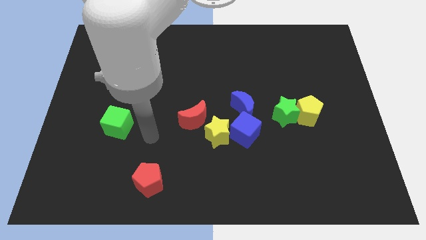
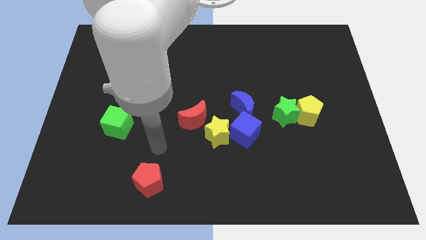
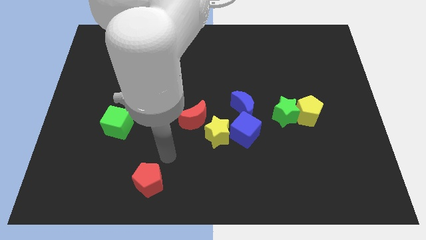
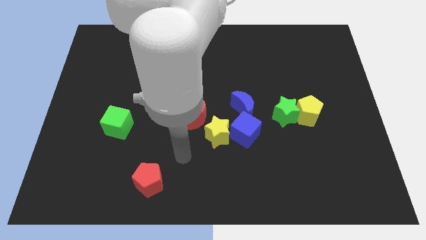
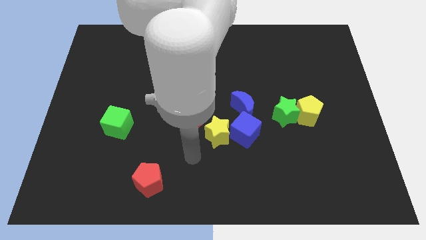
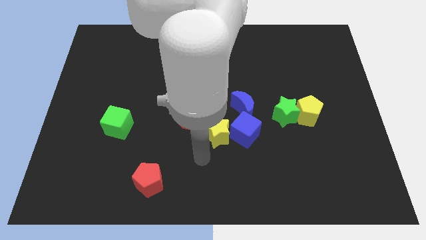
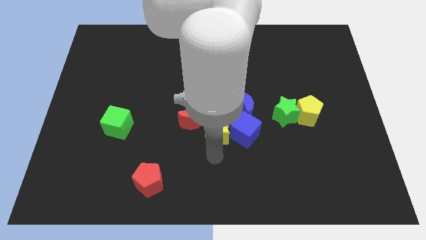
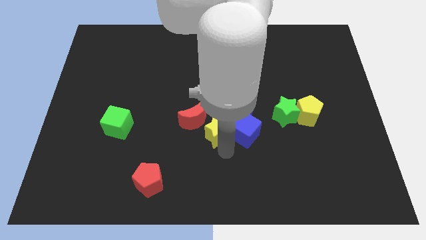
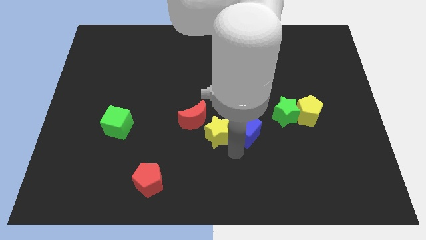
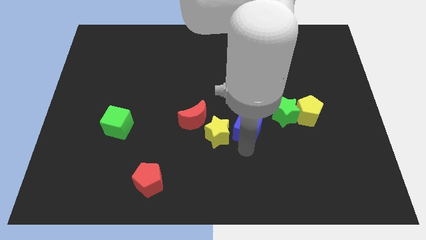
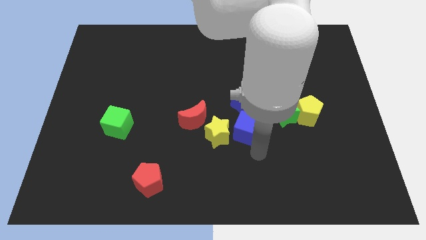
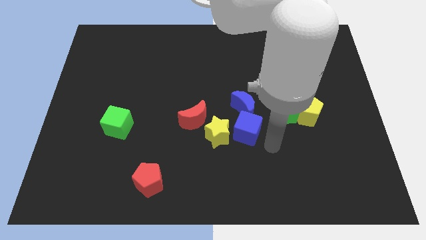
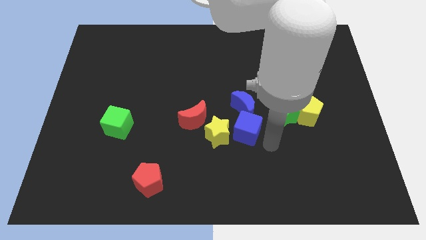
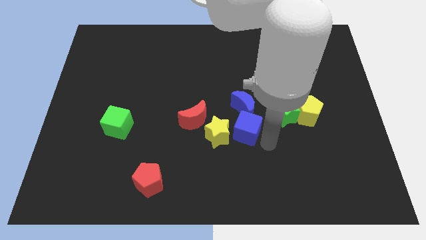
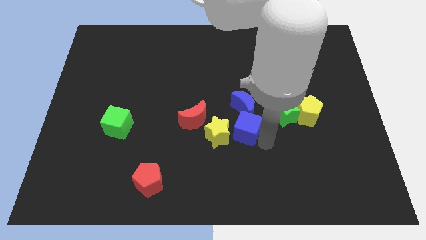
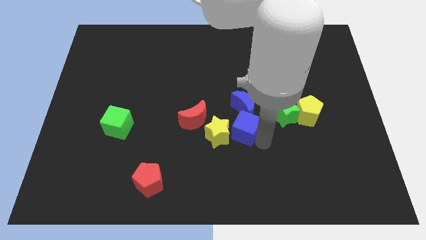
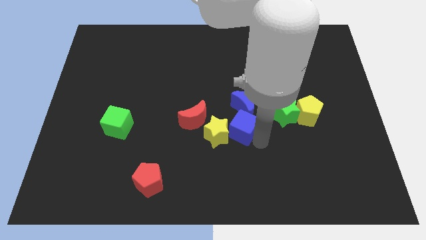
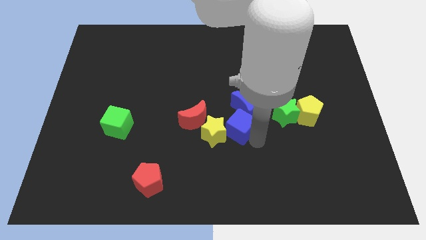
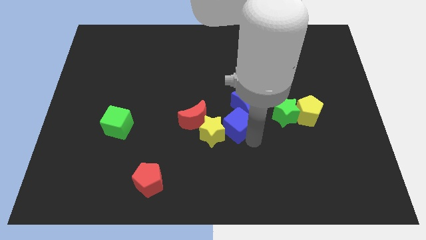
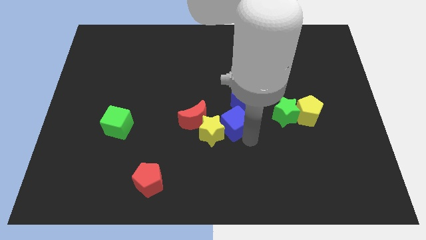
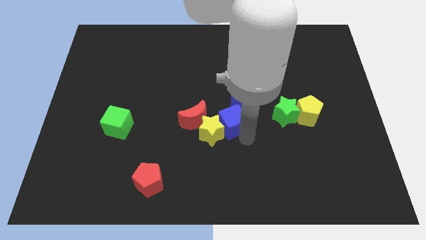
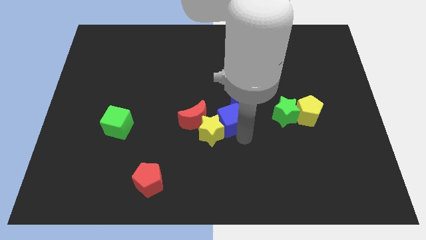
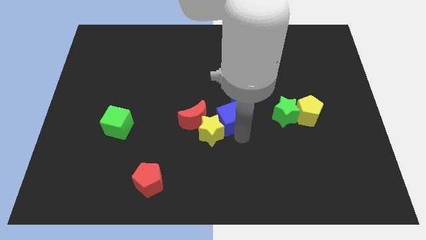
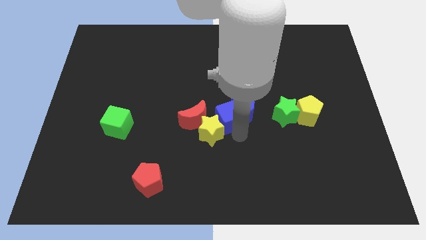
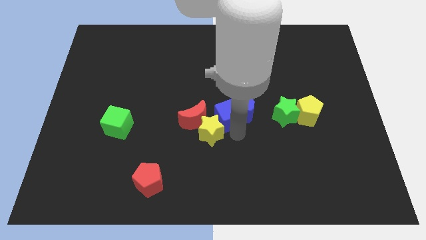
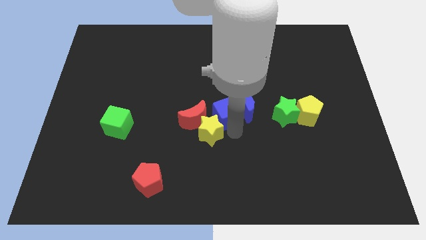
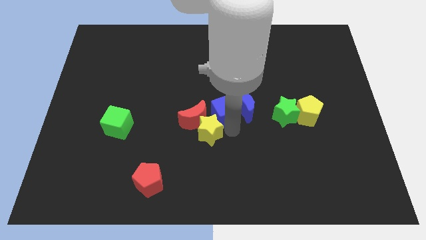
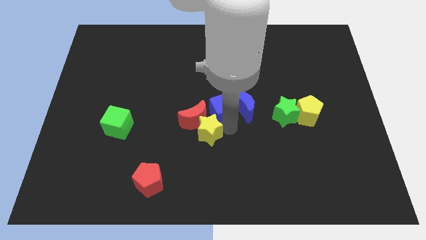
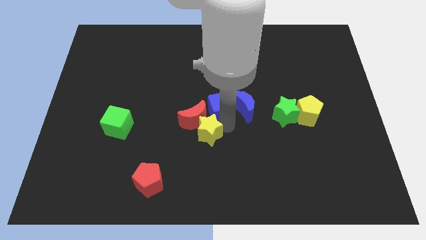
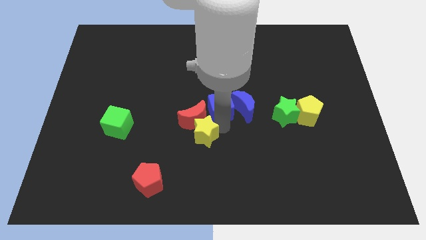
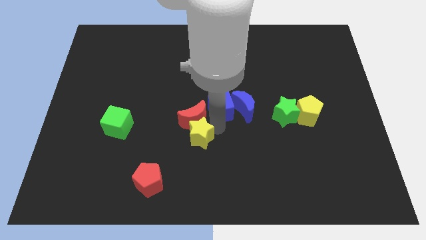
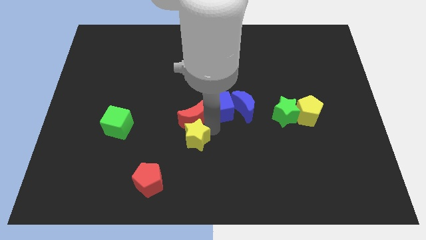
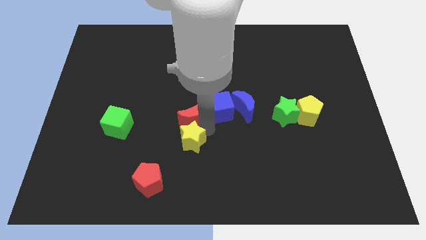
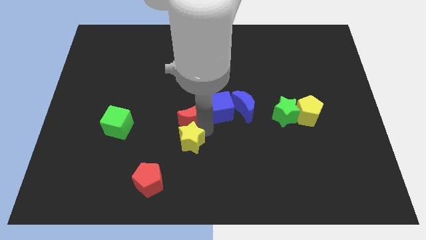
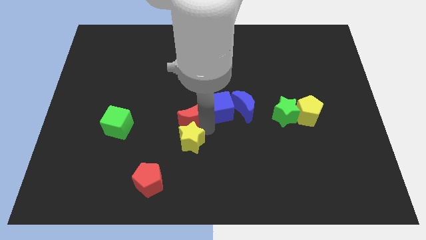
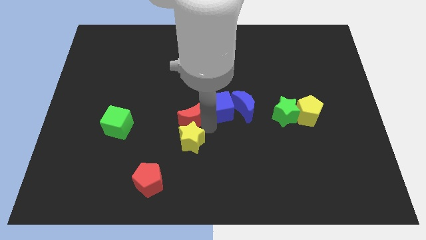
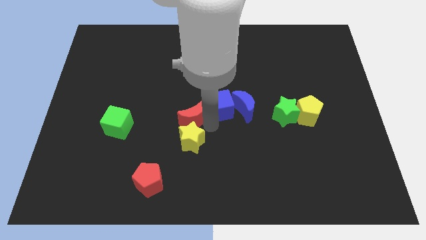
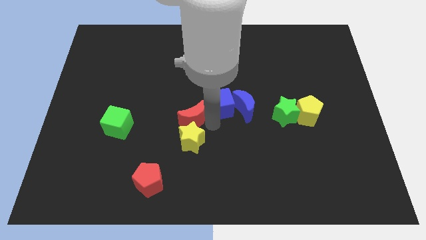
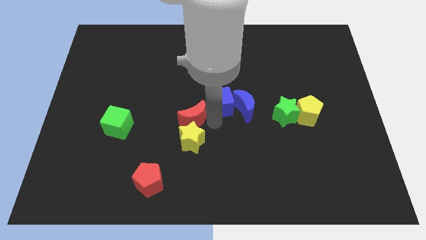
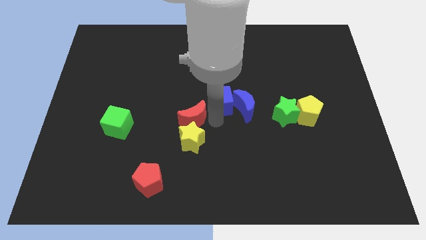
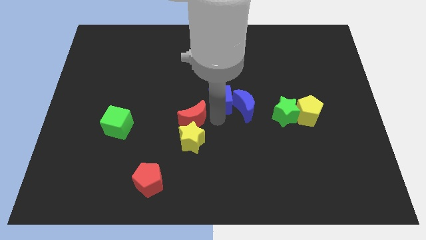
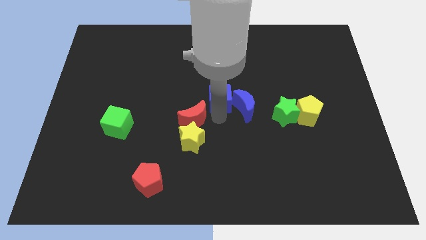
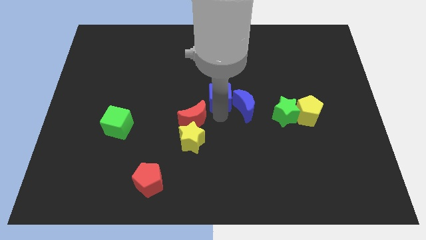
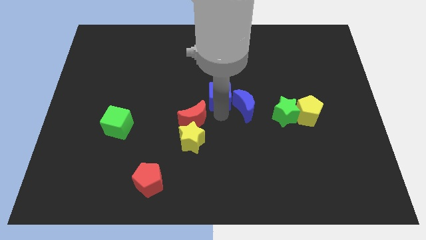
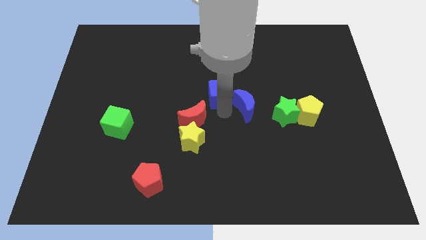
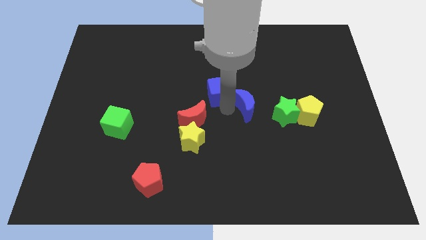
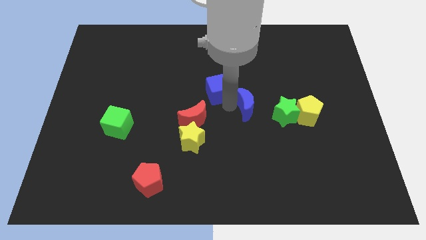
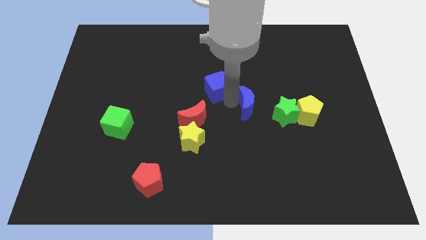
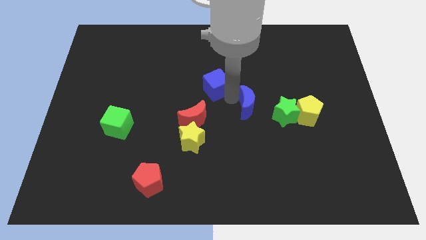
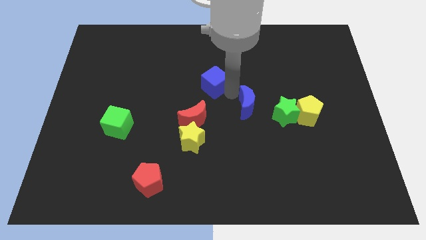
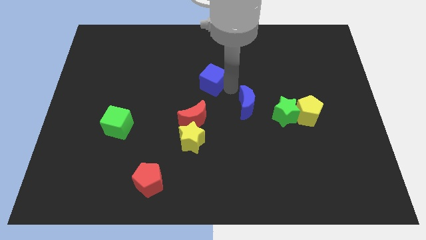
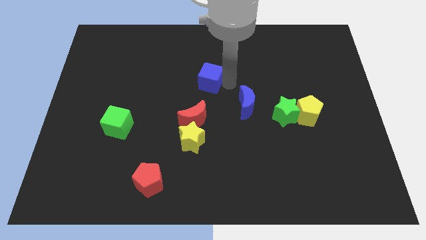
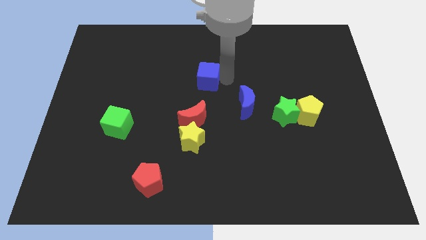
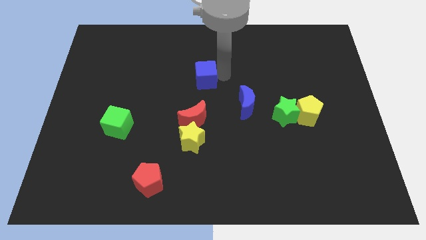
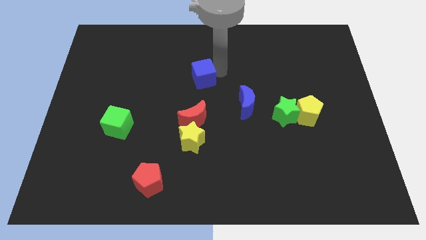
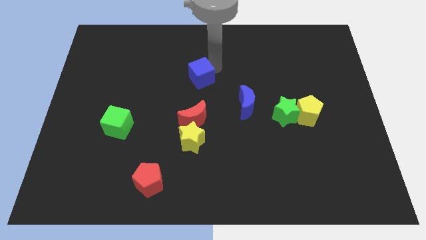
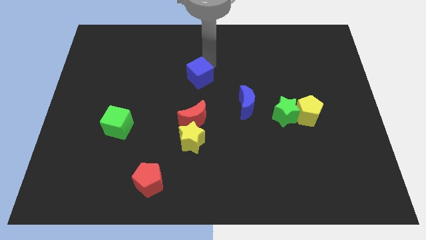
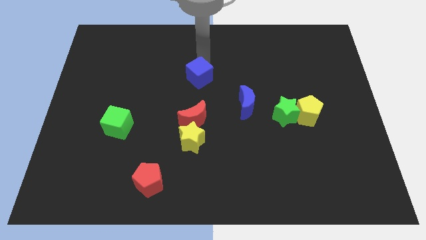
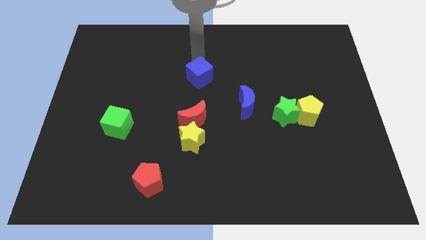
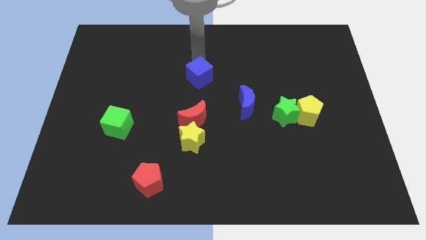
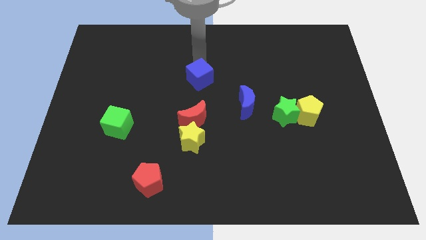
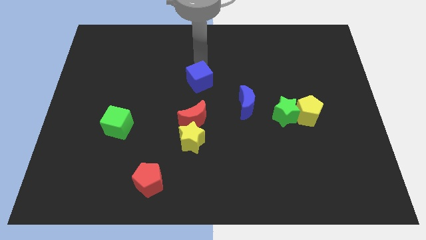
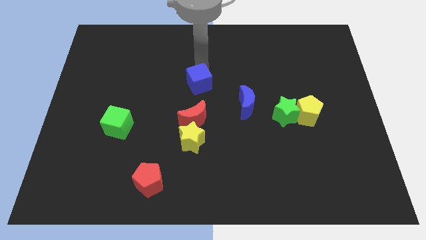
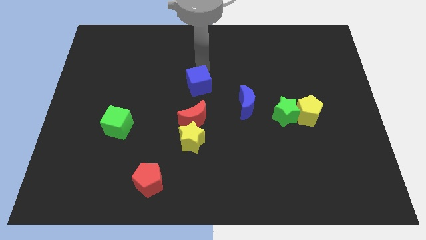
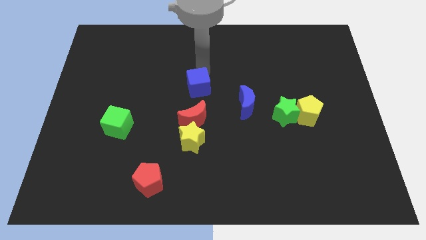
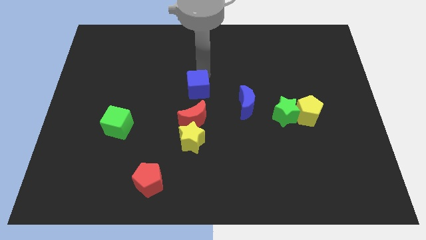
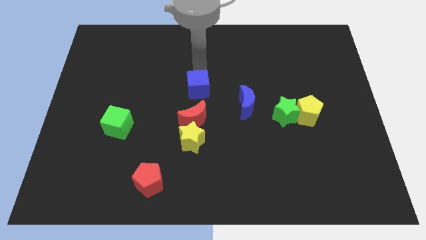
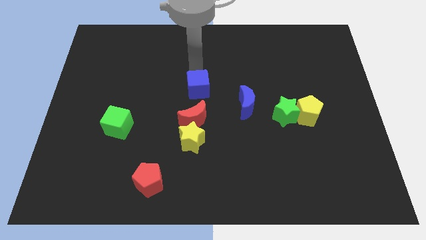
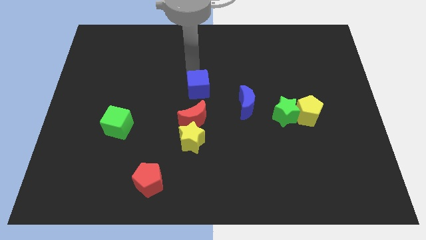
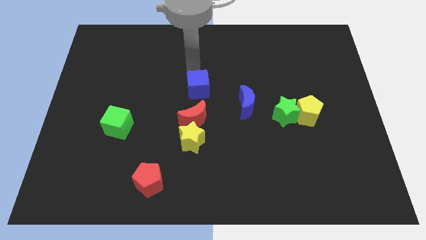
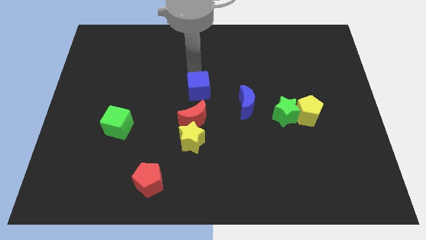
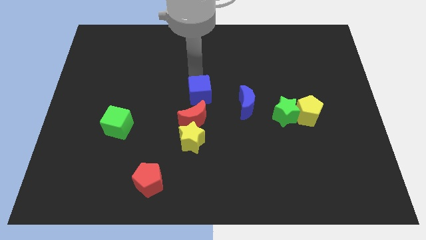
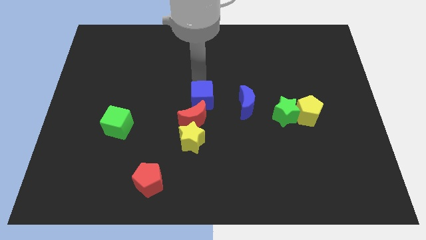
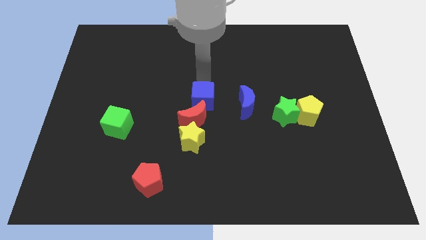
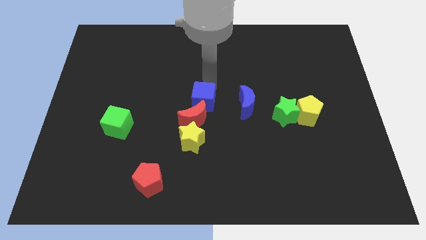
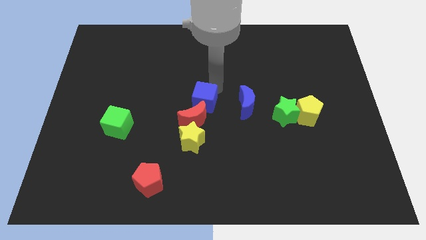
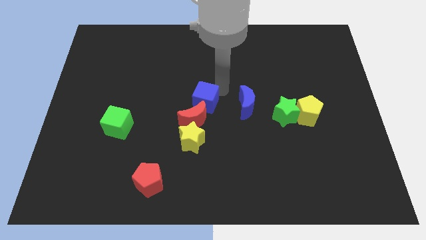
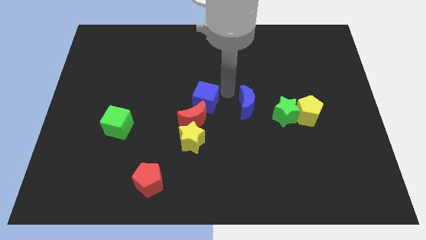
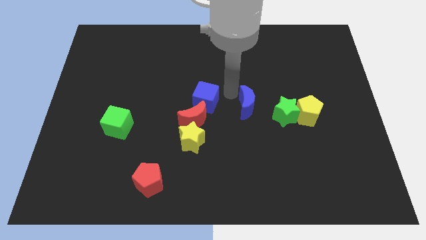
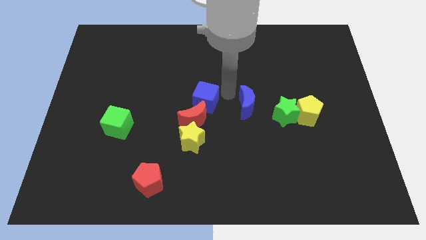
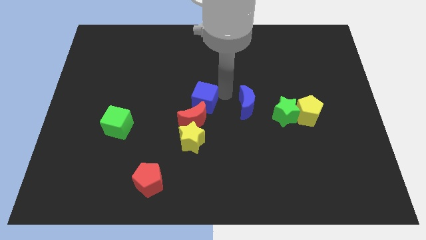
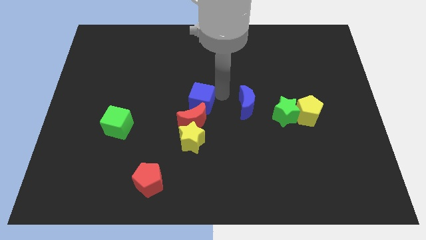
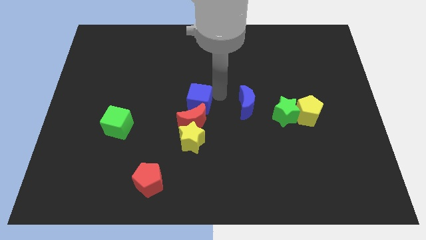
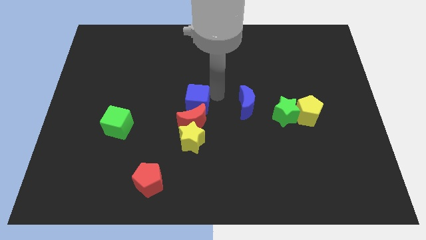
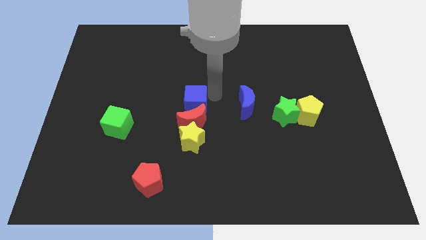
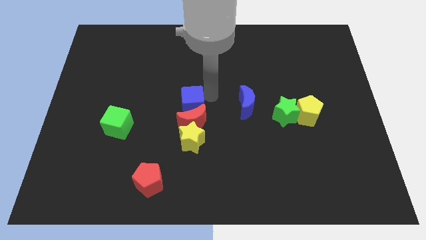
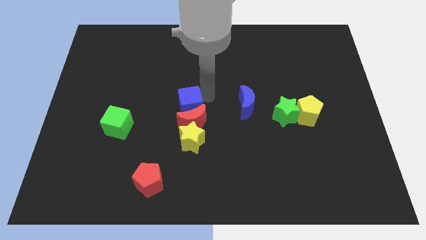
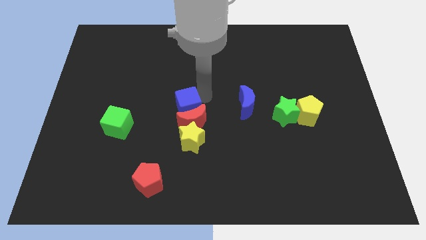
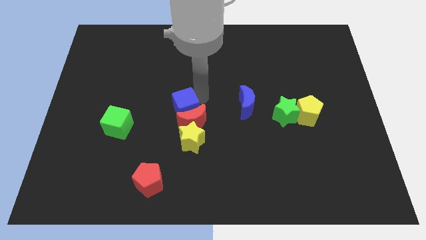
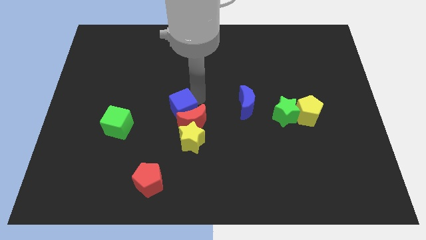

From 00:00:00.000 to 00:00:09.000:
push the blue cube to the top left of the yellow star
